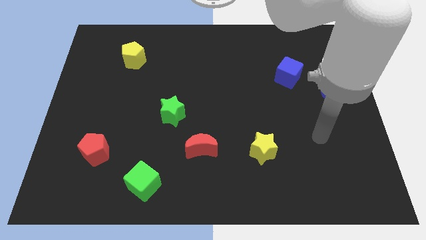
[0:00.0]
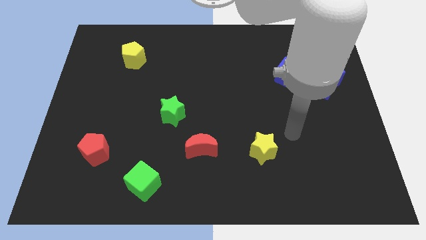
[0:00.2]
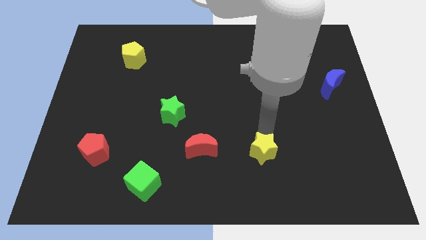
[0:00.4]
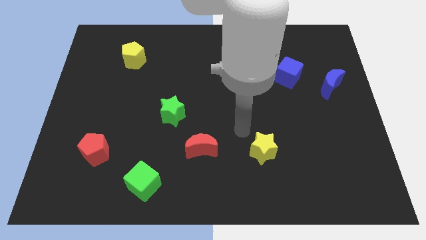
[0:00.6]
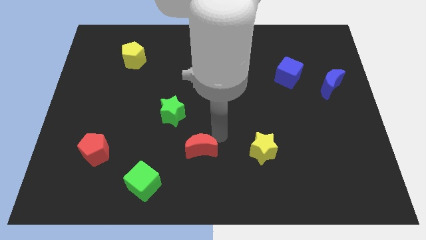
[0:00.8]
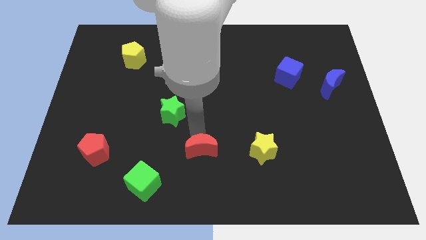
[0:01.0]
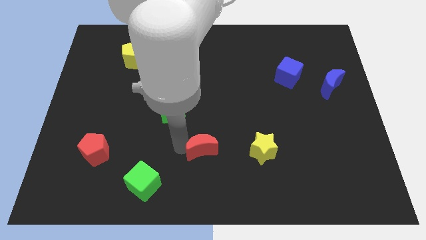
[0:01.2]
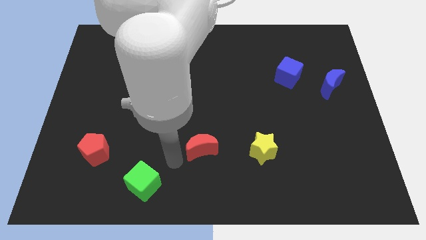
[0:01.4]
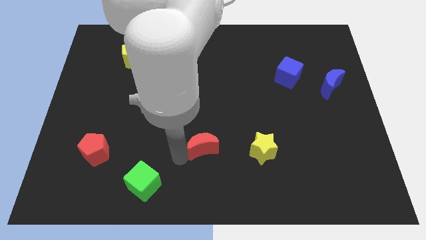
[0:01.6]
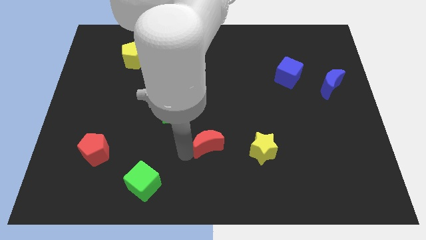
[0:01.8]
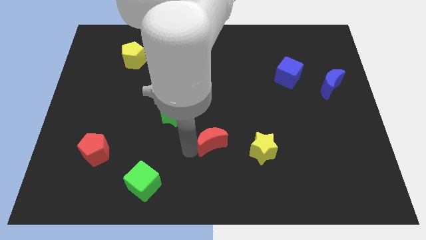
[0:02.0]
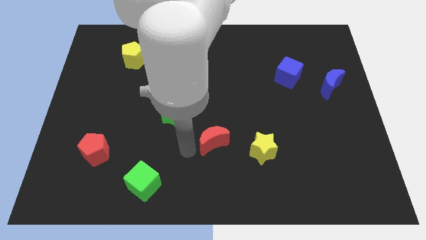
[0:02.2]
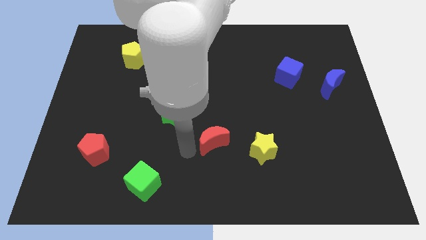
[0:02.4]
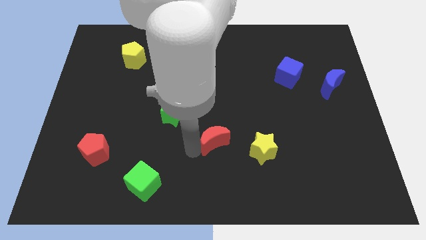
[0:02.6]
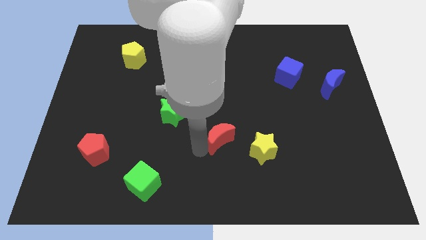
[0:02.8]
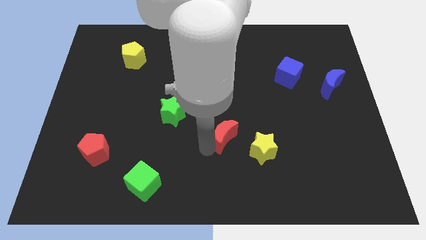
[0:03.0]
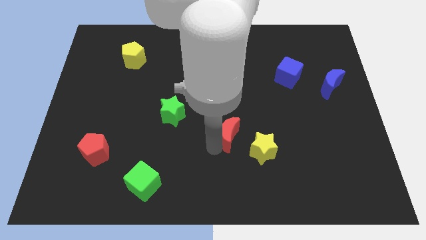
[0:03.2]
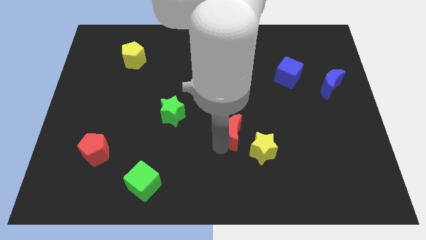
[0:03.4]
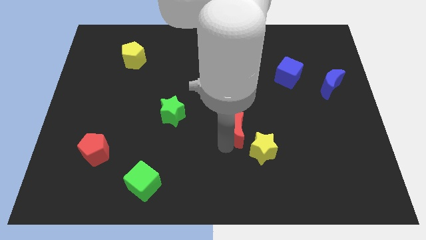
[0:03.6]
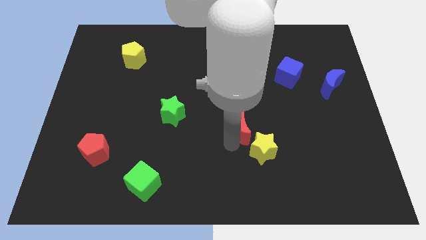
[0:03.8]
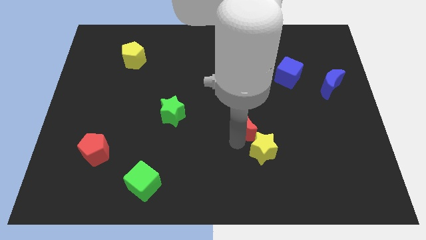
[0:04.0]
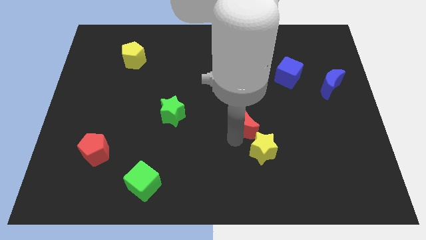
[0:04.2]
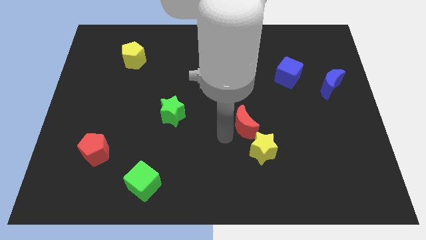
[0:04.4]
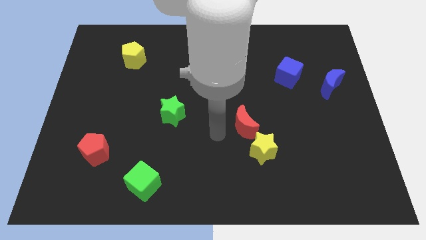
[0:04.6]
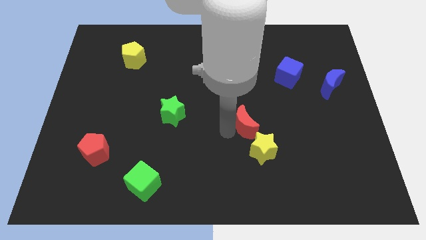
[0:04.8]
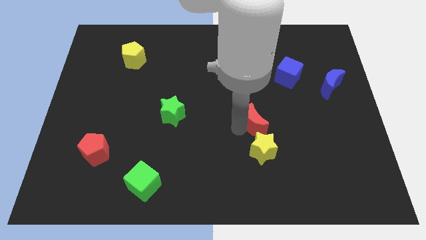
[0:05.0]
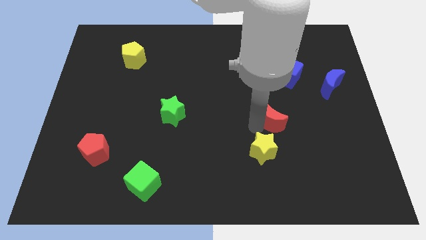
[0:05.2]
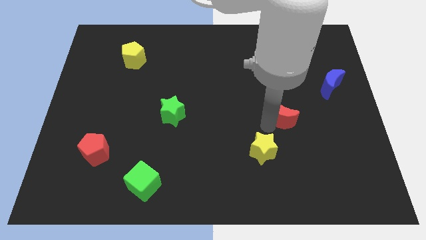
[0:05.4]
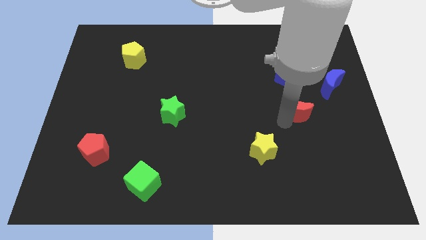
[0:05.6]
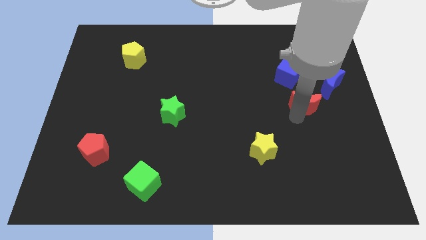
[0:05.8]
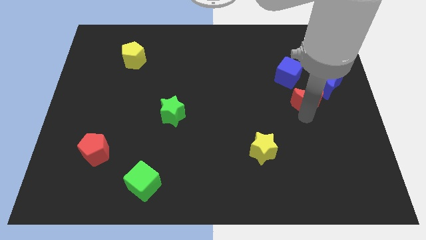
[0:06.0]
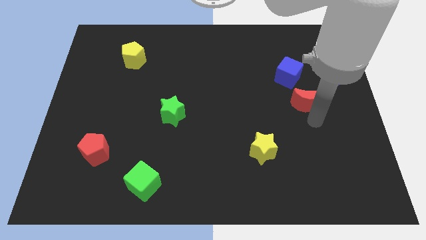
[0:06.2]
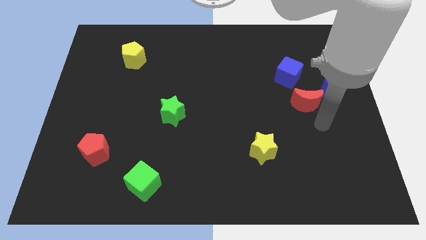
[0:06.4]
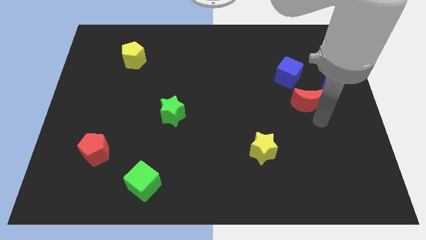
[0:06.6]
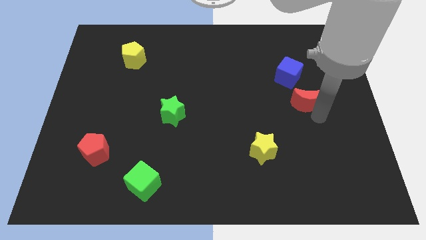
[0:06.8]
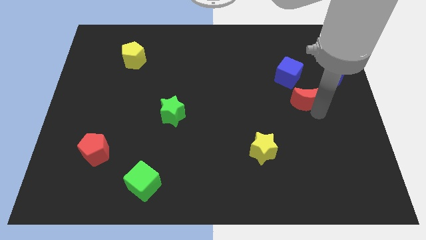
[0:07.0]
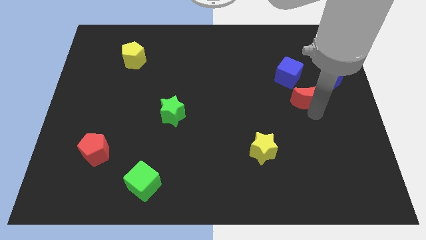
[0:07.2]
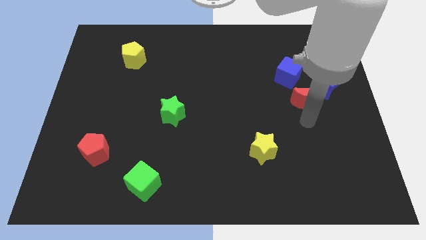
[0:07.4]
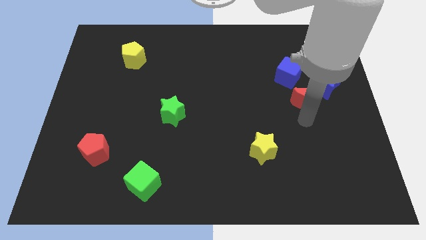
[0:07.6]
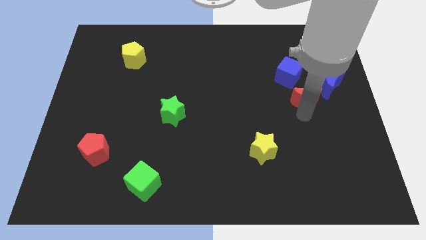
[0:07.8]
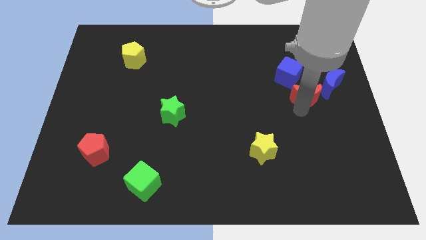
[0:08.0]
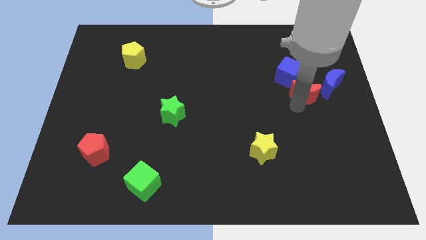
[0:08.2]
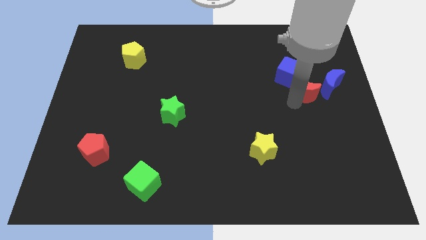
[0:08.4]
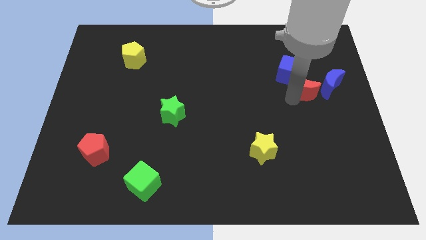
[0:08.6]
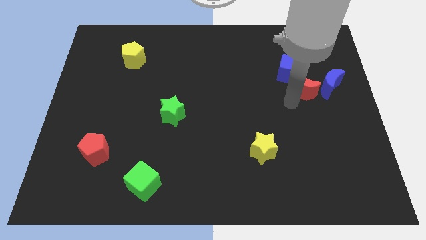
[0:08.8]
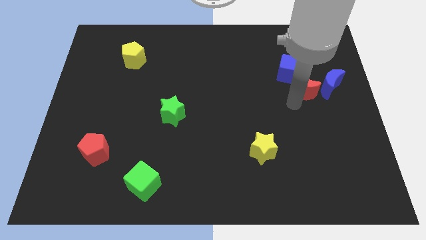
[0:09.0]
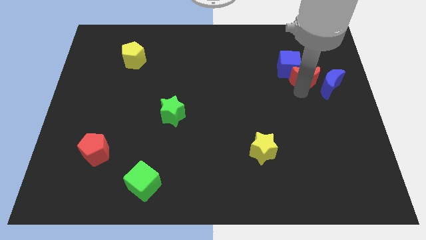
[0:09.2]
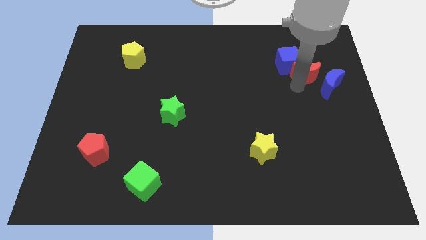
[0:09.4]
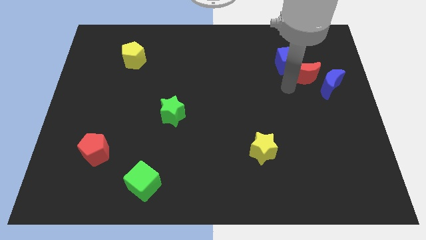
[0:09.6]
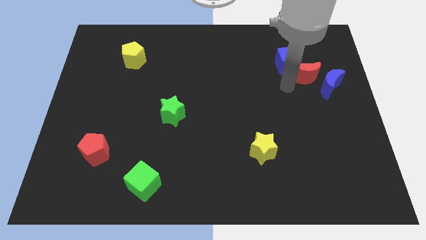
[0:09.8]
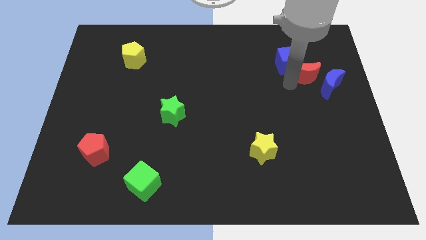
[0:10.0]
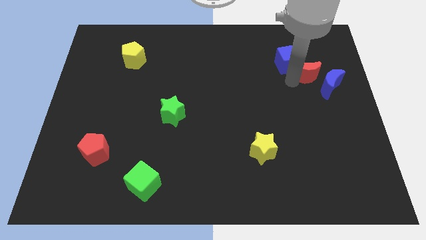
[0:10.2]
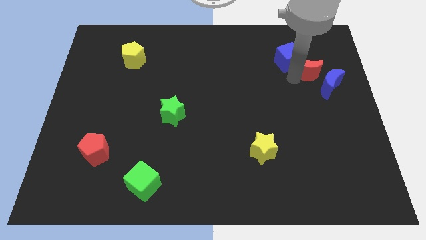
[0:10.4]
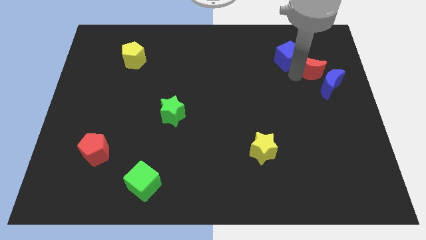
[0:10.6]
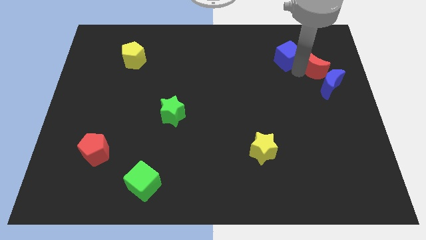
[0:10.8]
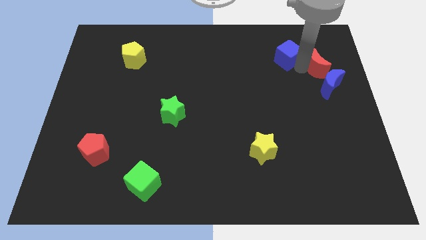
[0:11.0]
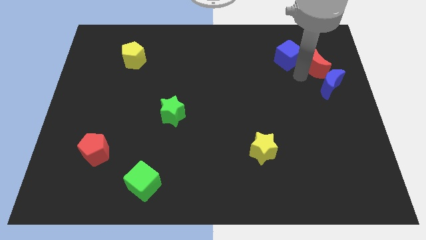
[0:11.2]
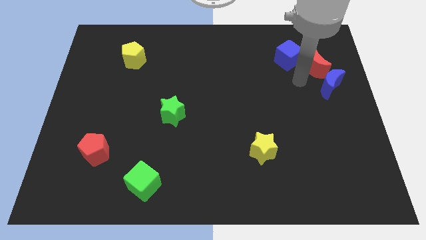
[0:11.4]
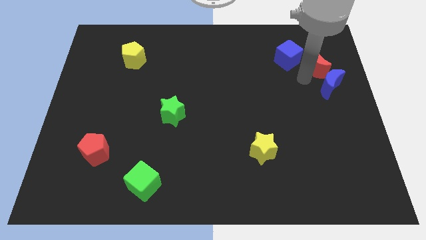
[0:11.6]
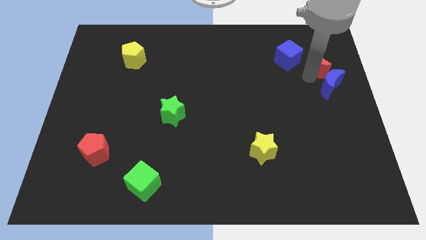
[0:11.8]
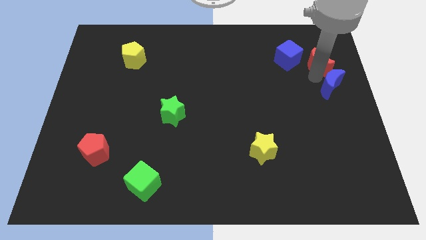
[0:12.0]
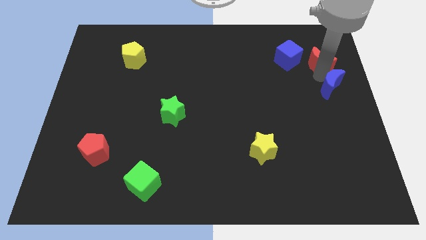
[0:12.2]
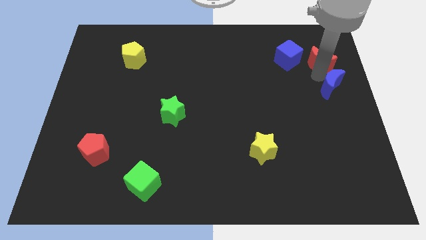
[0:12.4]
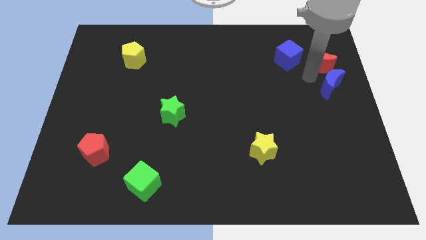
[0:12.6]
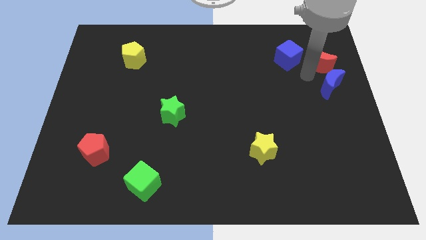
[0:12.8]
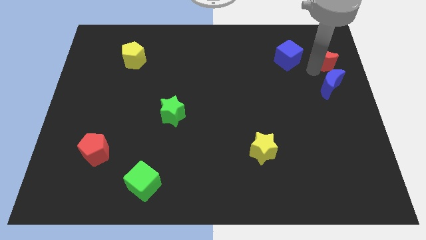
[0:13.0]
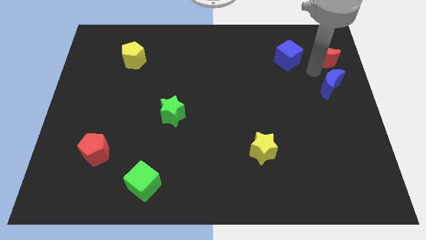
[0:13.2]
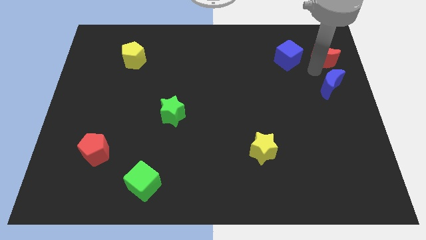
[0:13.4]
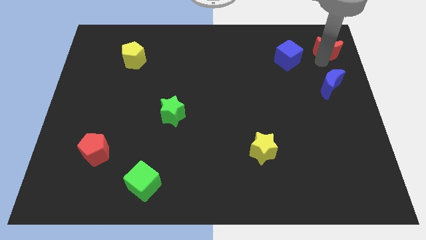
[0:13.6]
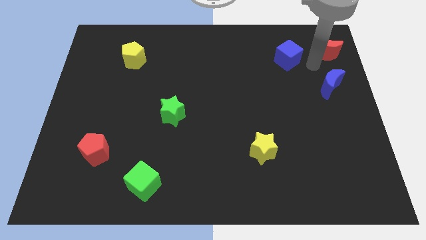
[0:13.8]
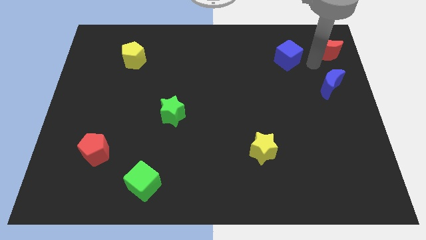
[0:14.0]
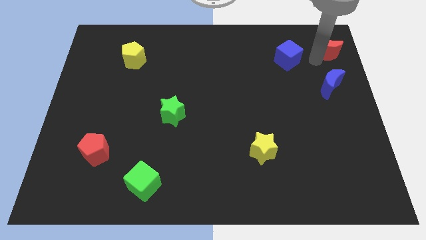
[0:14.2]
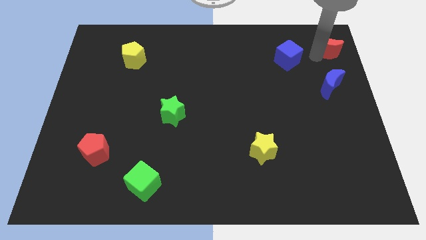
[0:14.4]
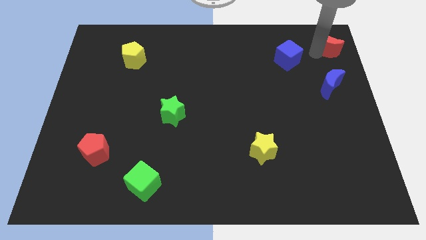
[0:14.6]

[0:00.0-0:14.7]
move the red moon to the top right
